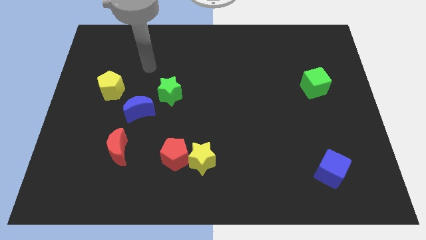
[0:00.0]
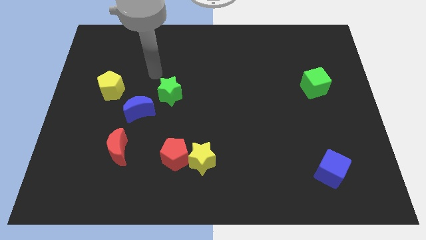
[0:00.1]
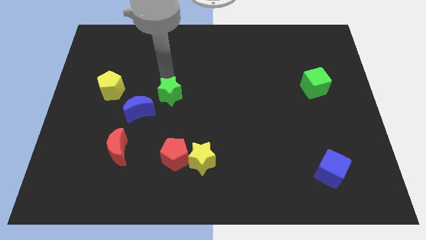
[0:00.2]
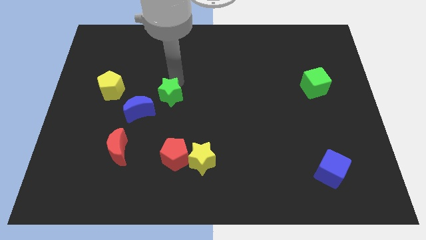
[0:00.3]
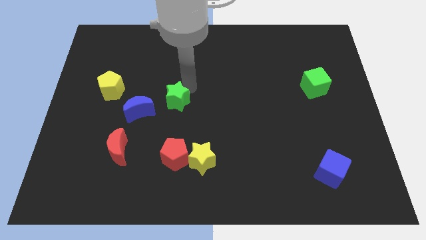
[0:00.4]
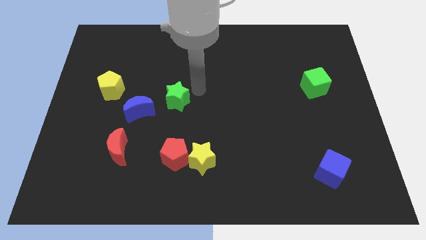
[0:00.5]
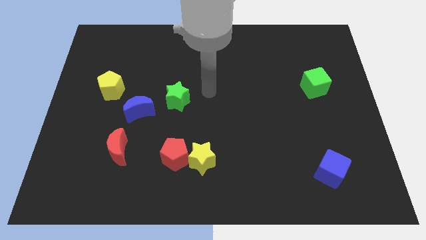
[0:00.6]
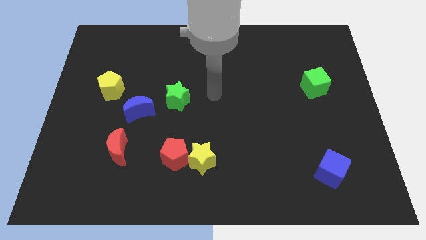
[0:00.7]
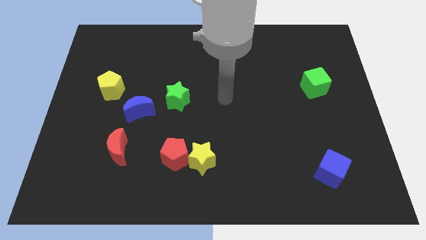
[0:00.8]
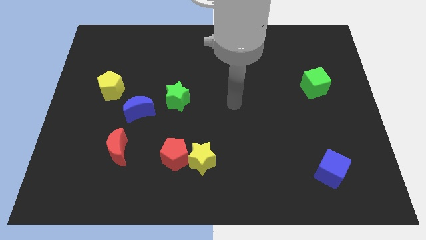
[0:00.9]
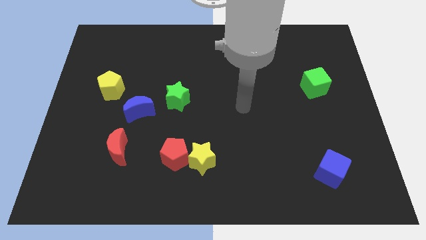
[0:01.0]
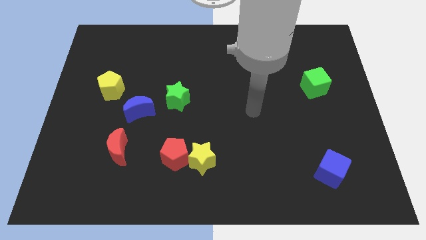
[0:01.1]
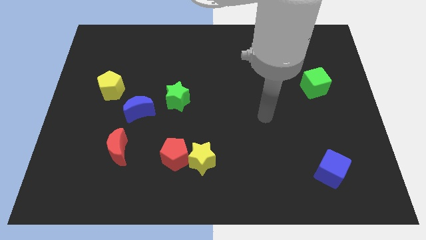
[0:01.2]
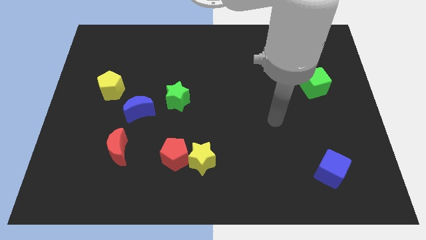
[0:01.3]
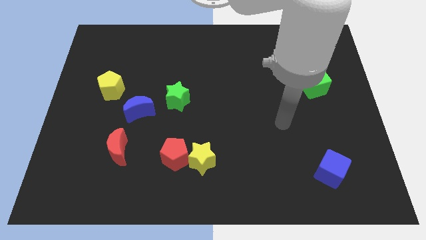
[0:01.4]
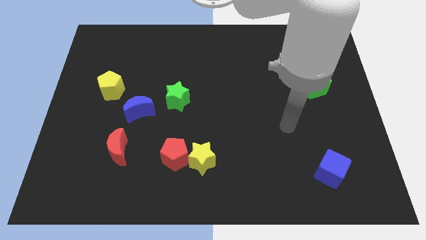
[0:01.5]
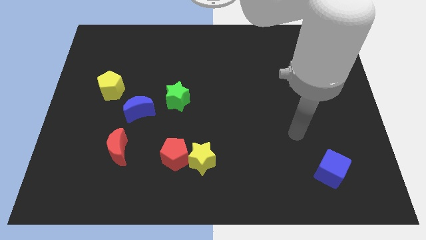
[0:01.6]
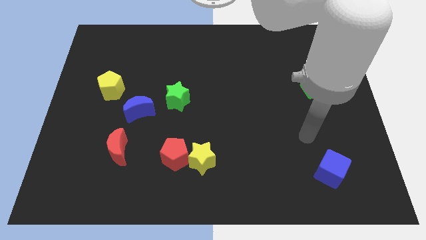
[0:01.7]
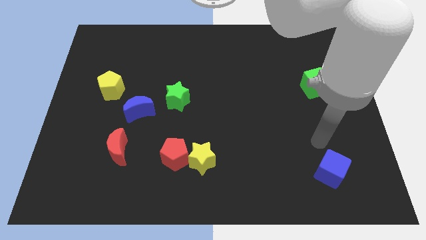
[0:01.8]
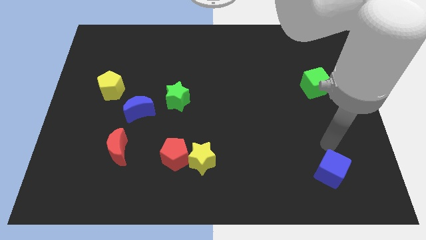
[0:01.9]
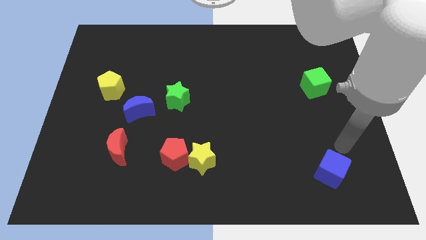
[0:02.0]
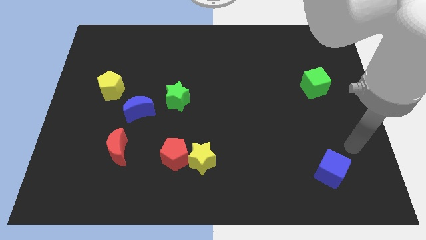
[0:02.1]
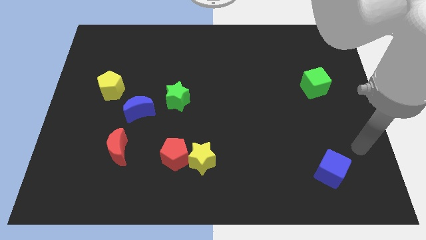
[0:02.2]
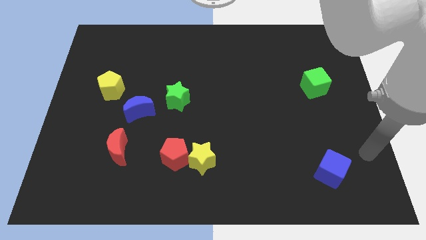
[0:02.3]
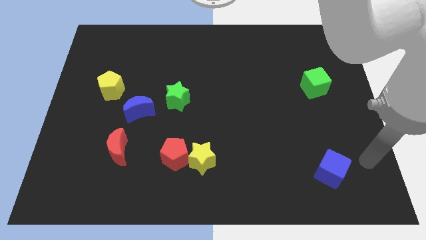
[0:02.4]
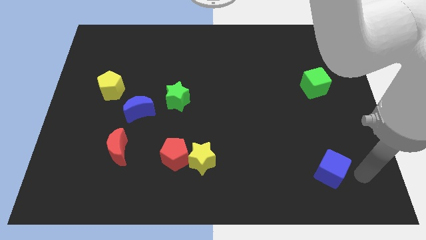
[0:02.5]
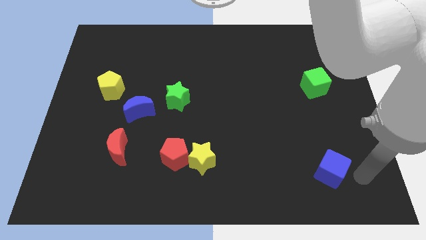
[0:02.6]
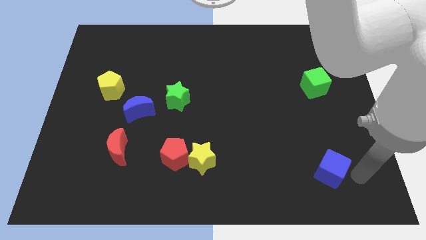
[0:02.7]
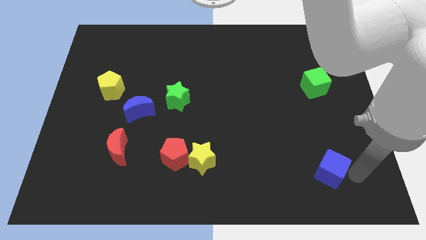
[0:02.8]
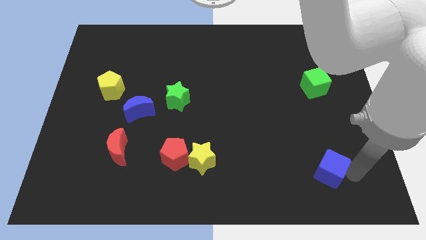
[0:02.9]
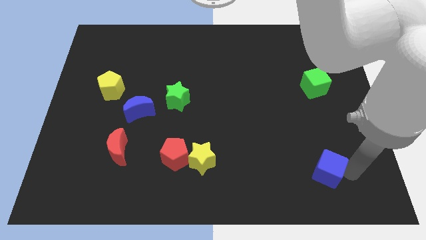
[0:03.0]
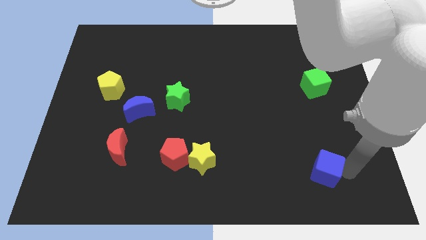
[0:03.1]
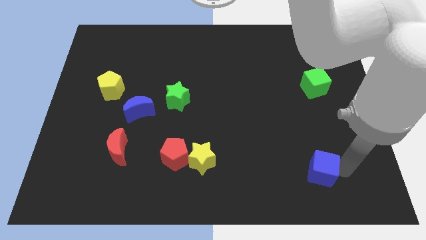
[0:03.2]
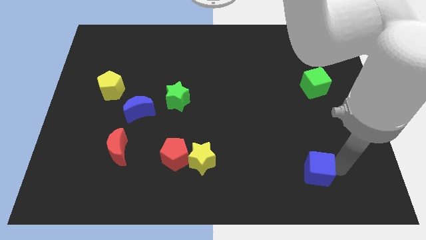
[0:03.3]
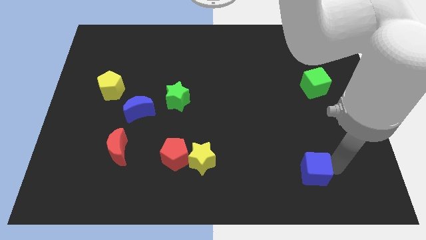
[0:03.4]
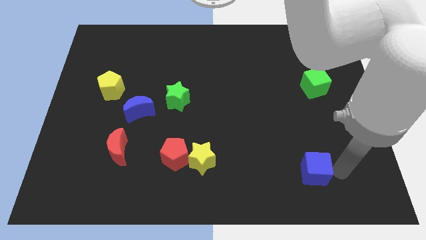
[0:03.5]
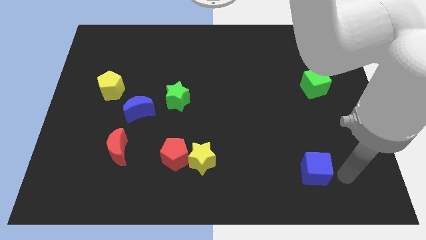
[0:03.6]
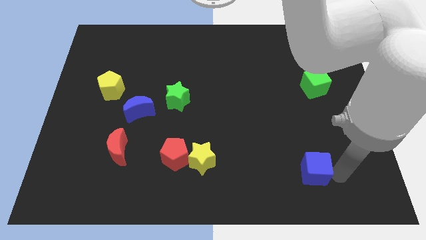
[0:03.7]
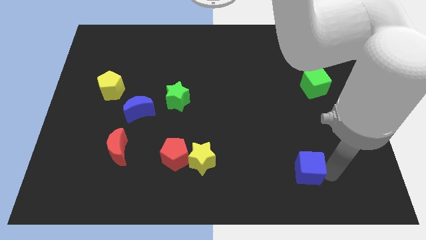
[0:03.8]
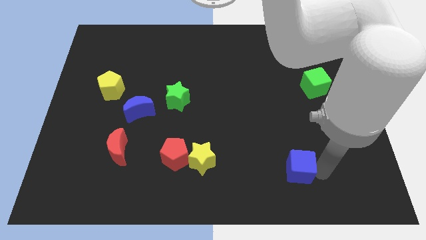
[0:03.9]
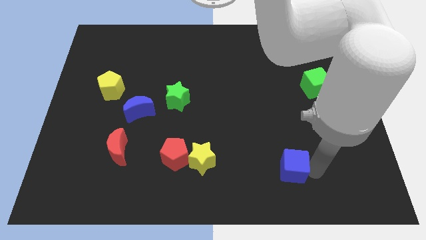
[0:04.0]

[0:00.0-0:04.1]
slightly slide the blue cube left

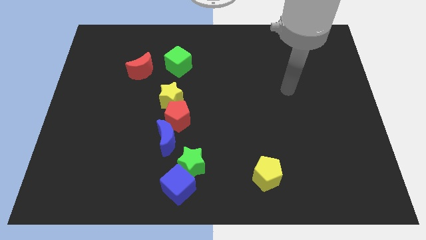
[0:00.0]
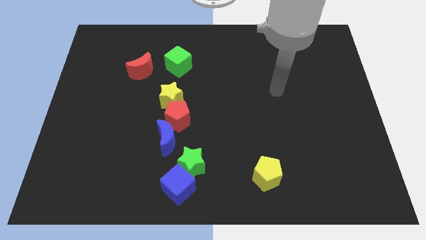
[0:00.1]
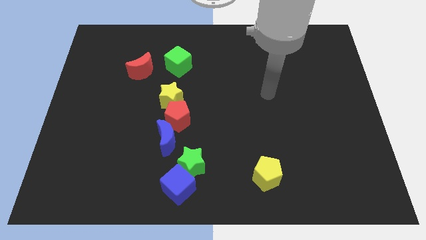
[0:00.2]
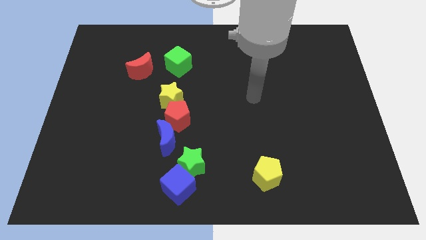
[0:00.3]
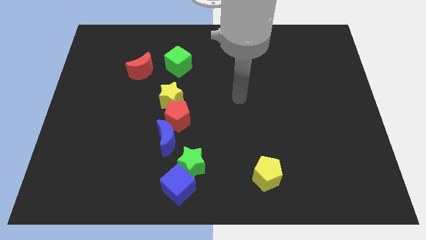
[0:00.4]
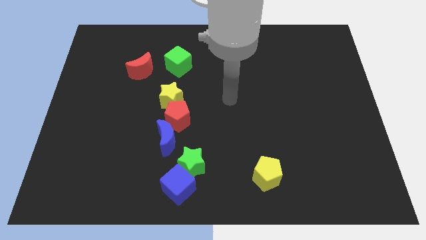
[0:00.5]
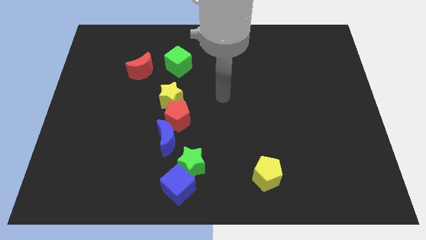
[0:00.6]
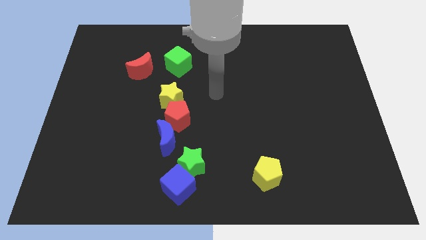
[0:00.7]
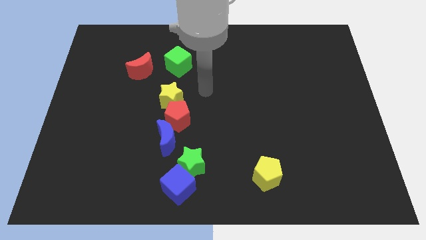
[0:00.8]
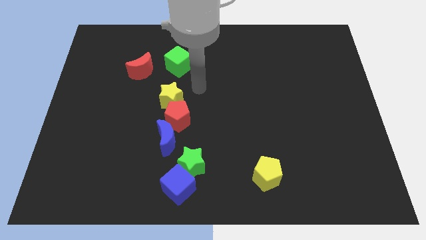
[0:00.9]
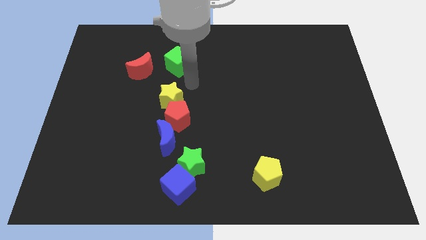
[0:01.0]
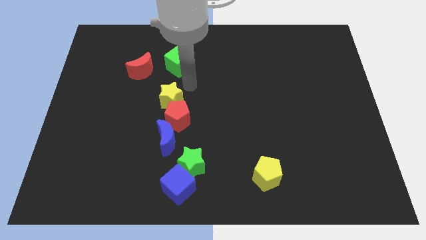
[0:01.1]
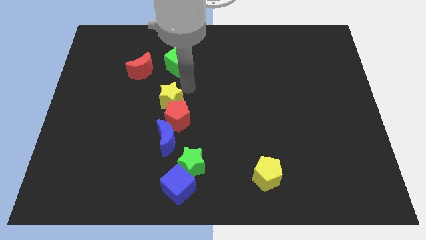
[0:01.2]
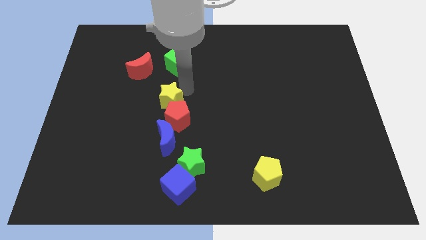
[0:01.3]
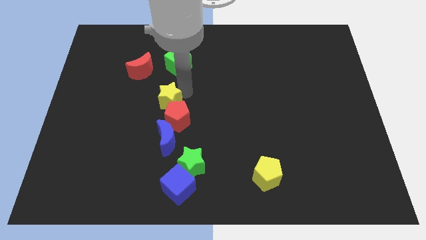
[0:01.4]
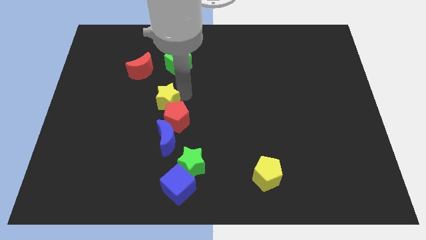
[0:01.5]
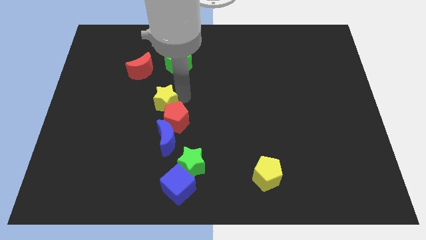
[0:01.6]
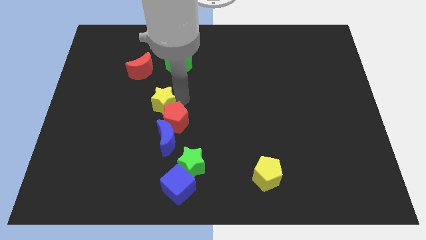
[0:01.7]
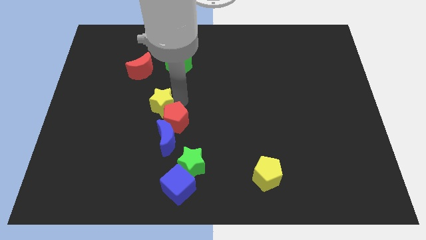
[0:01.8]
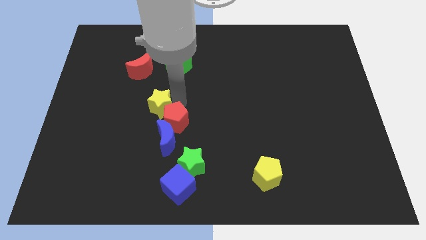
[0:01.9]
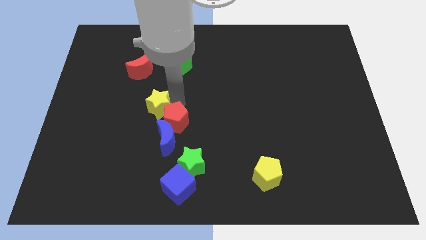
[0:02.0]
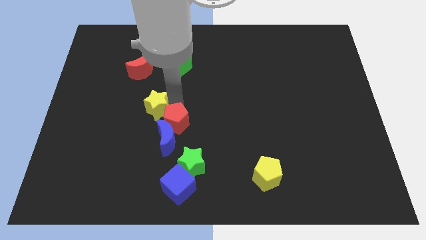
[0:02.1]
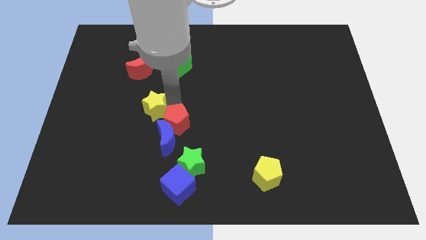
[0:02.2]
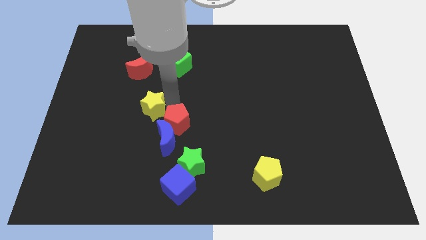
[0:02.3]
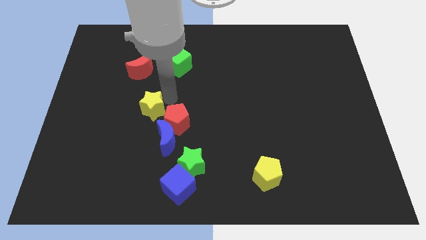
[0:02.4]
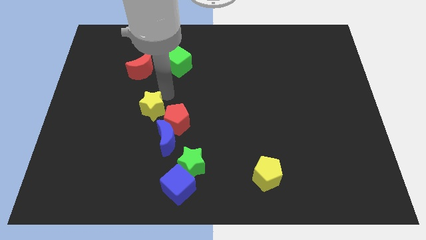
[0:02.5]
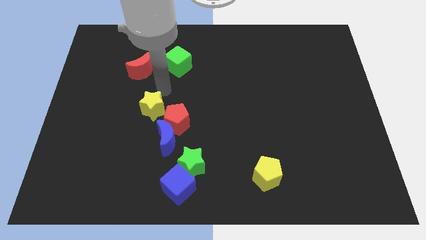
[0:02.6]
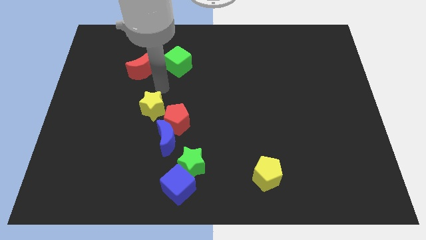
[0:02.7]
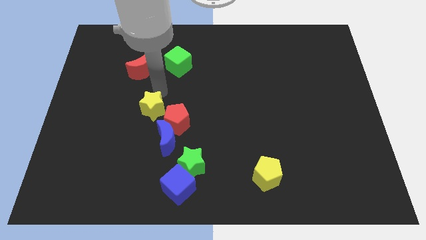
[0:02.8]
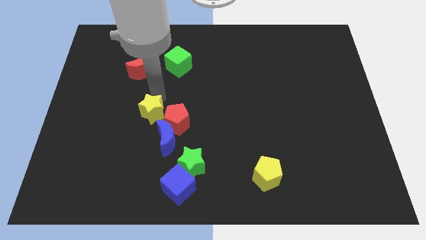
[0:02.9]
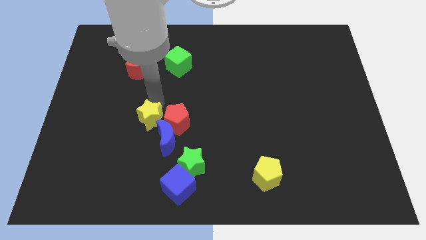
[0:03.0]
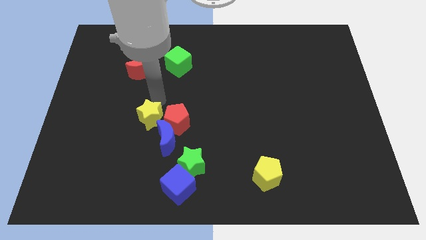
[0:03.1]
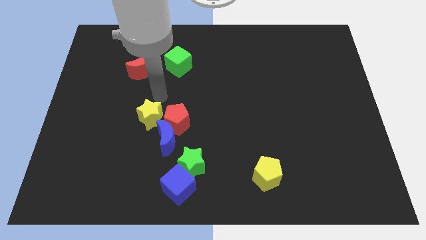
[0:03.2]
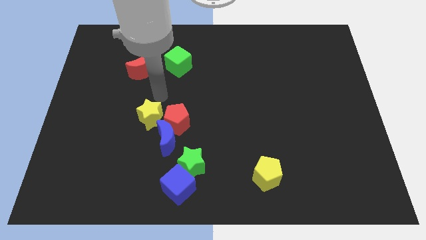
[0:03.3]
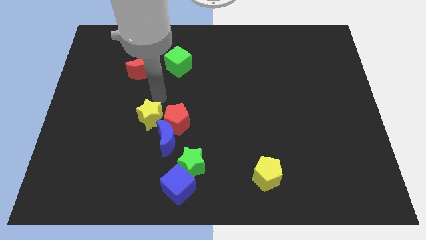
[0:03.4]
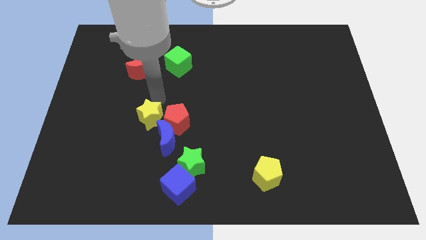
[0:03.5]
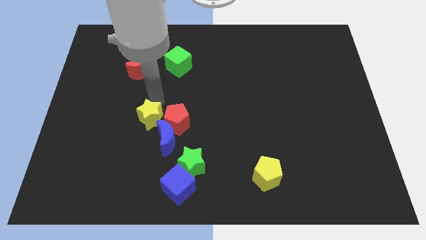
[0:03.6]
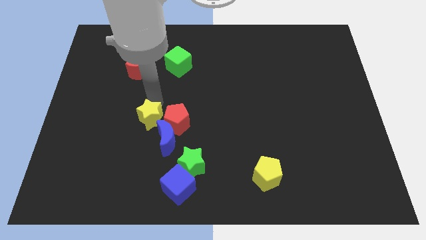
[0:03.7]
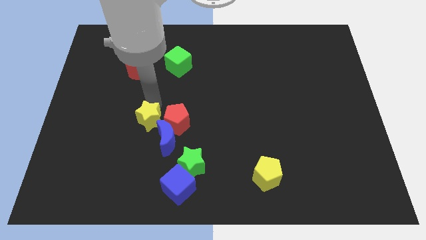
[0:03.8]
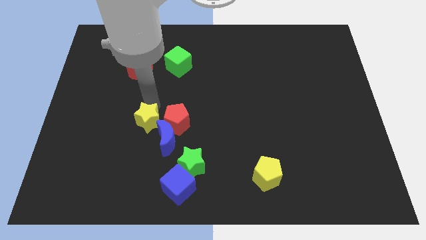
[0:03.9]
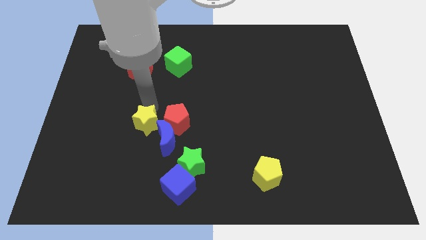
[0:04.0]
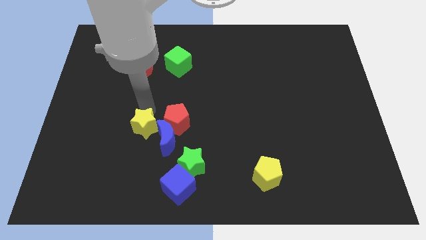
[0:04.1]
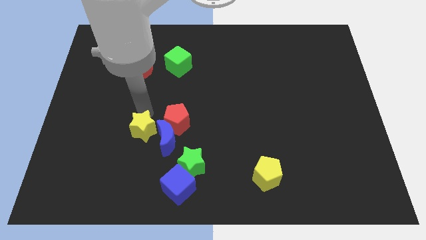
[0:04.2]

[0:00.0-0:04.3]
slide the yellow star slightly down

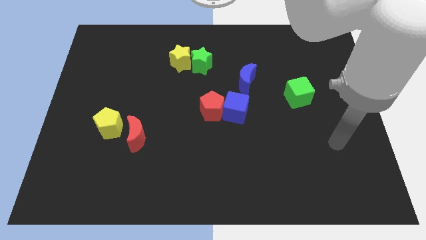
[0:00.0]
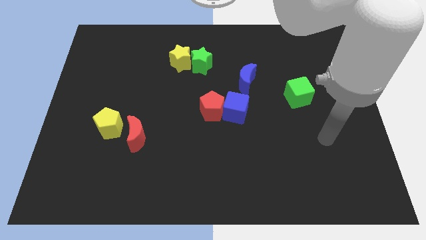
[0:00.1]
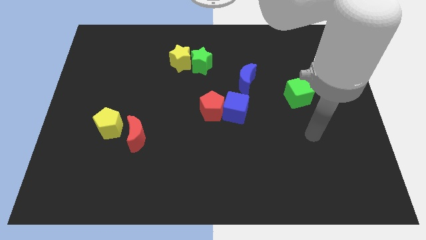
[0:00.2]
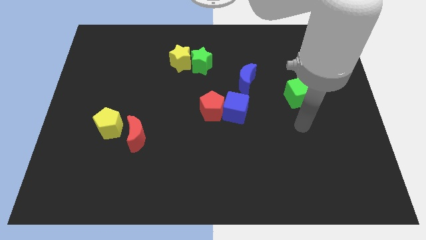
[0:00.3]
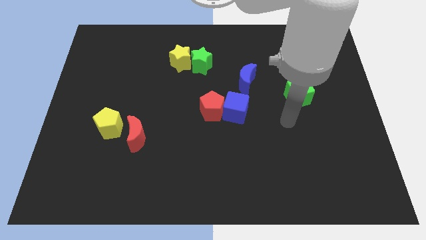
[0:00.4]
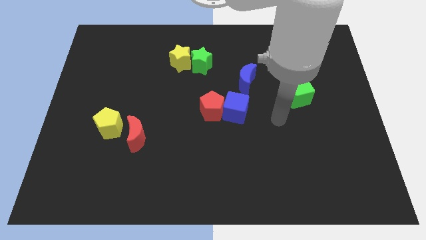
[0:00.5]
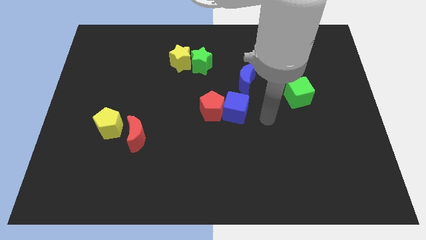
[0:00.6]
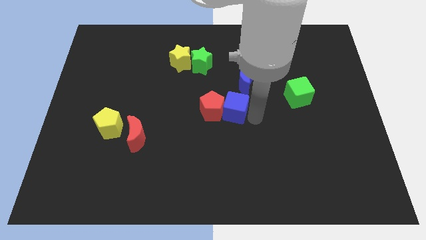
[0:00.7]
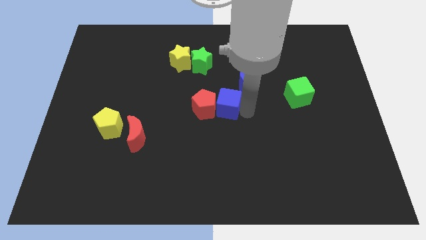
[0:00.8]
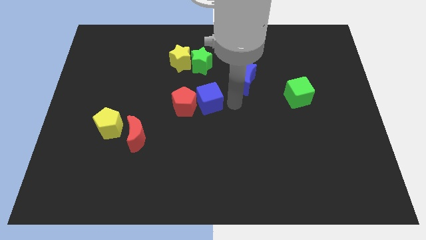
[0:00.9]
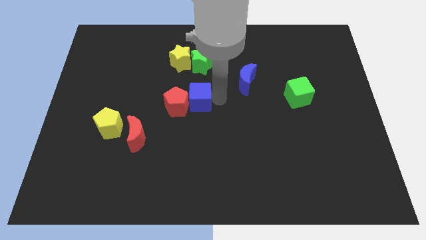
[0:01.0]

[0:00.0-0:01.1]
slide the red pentagon slightly left
